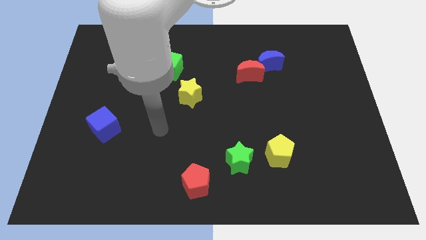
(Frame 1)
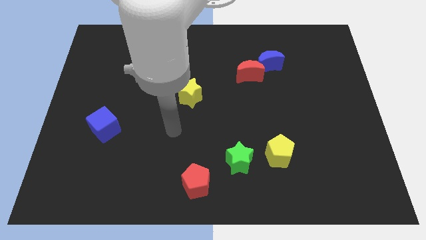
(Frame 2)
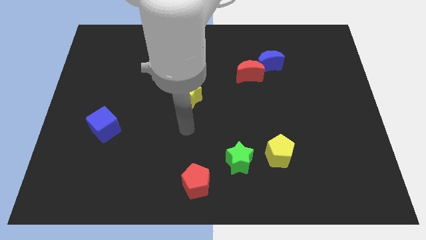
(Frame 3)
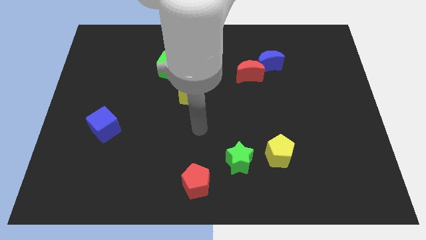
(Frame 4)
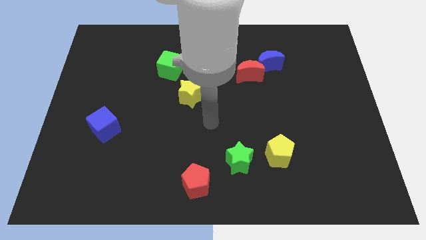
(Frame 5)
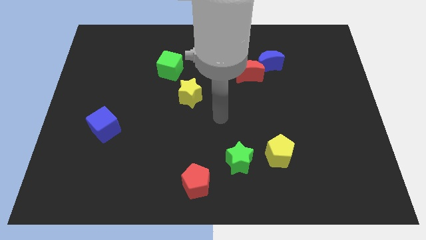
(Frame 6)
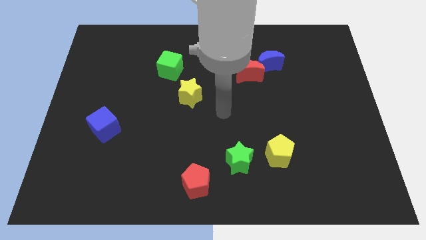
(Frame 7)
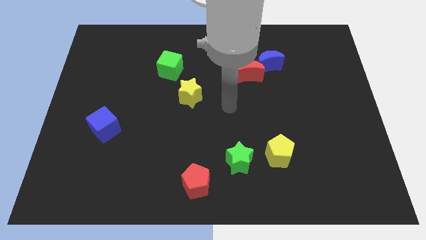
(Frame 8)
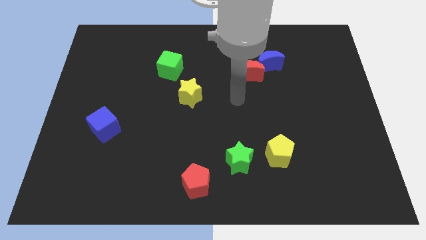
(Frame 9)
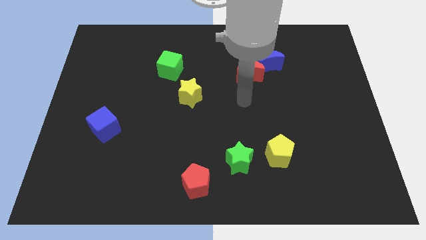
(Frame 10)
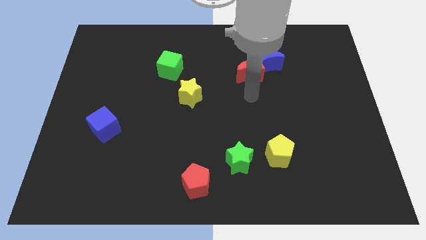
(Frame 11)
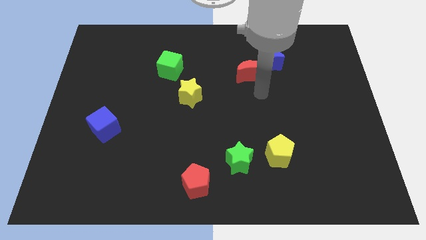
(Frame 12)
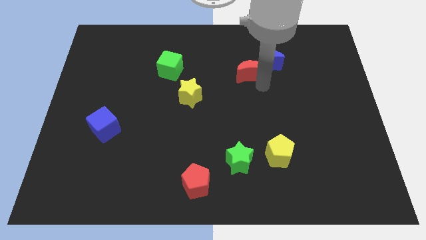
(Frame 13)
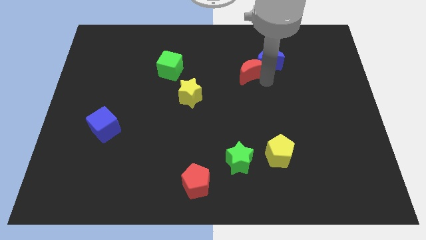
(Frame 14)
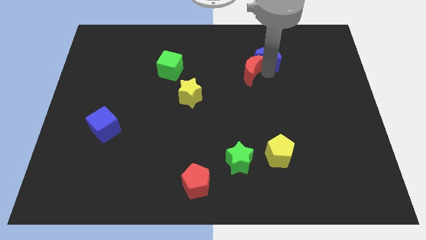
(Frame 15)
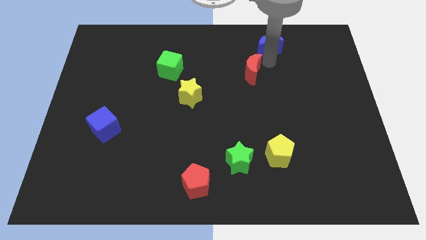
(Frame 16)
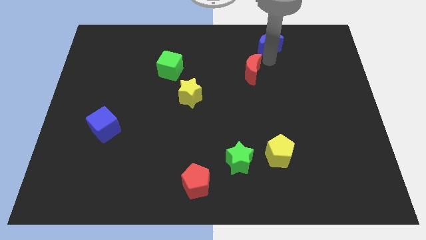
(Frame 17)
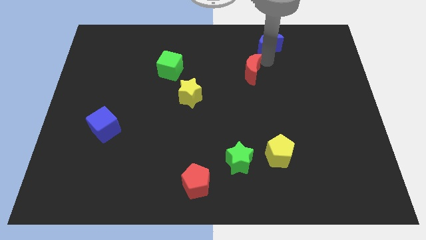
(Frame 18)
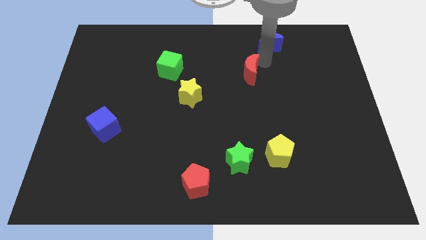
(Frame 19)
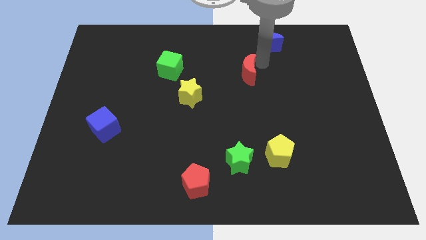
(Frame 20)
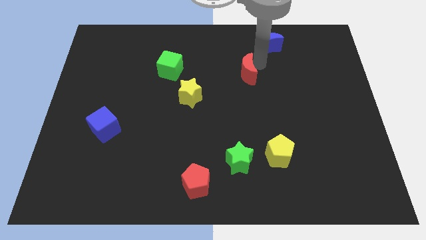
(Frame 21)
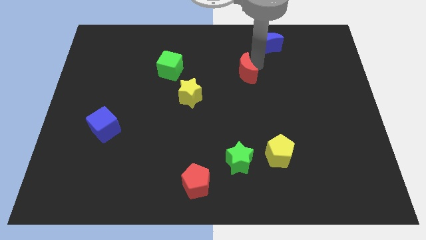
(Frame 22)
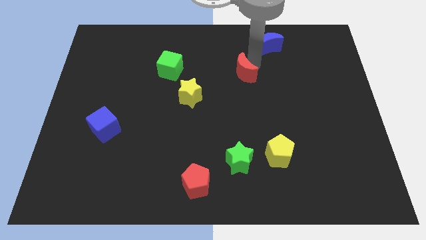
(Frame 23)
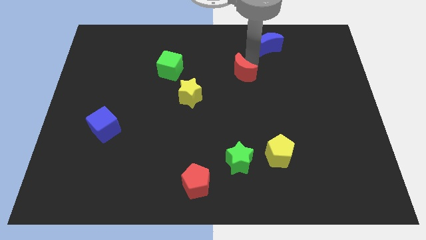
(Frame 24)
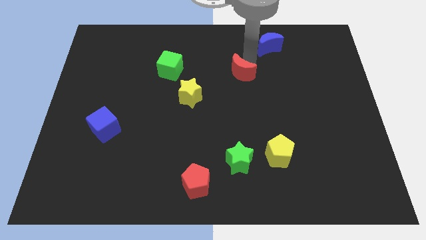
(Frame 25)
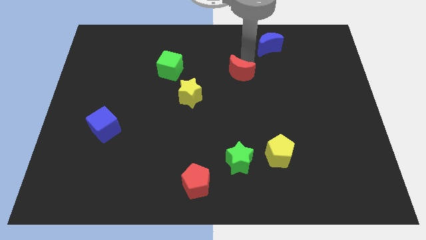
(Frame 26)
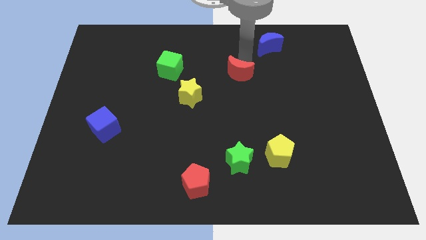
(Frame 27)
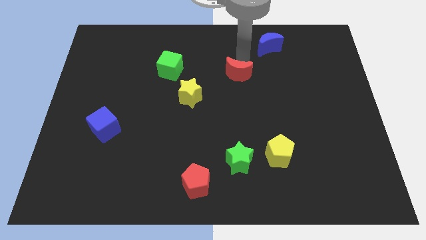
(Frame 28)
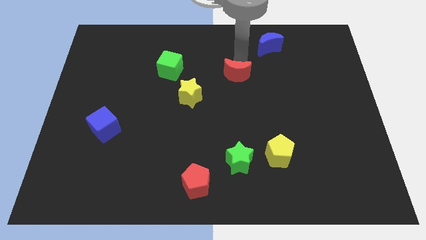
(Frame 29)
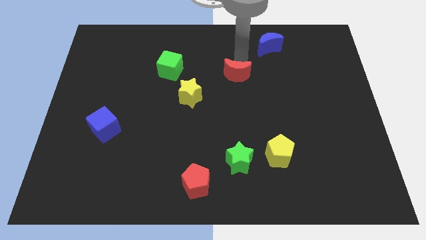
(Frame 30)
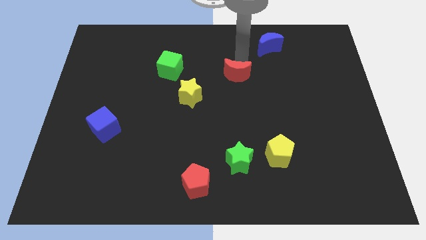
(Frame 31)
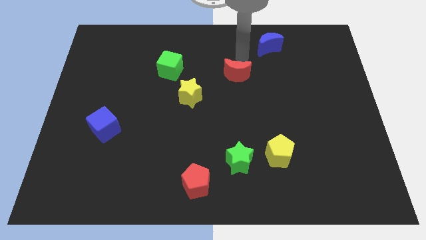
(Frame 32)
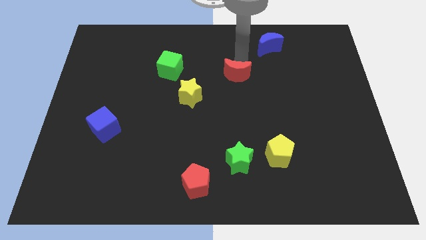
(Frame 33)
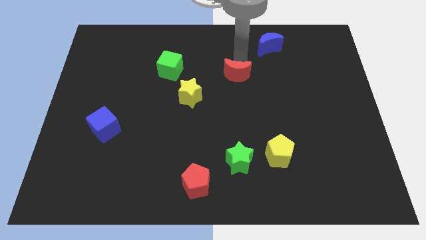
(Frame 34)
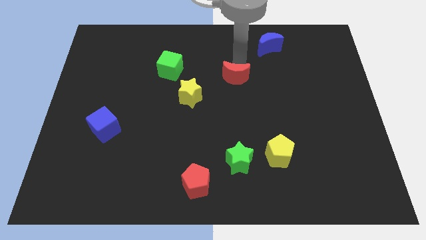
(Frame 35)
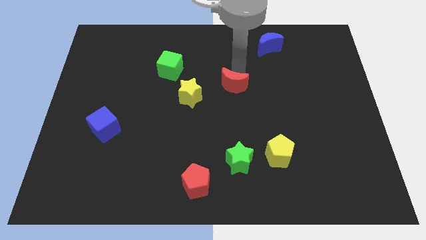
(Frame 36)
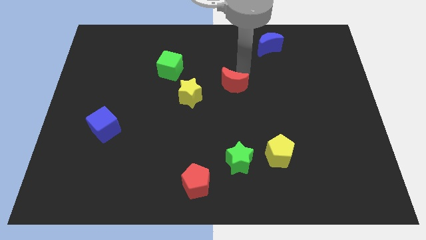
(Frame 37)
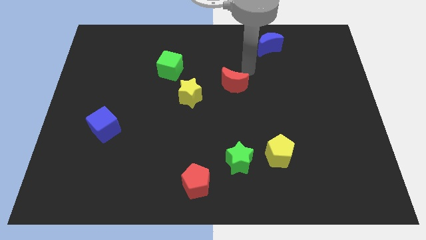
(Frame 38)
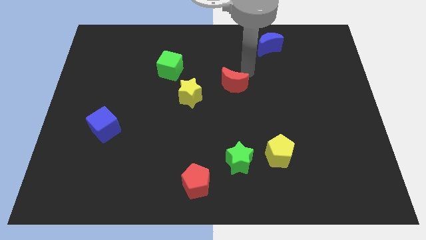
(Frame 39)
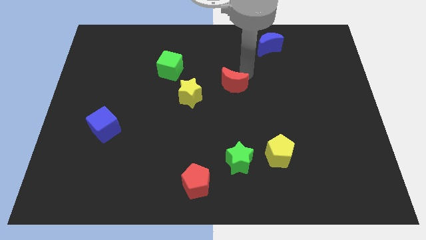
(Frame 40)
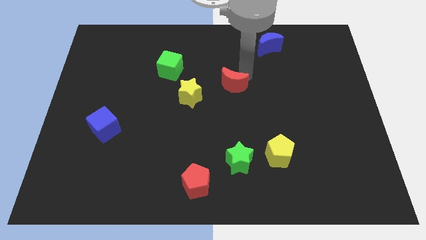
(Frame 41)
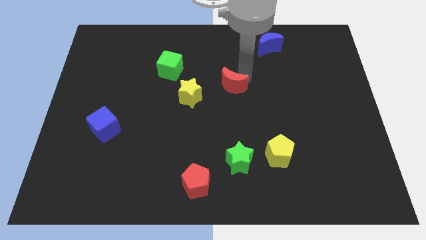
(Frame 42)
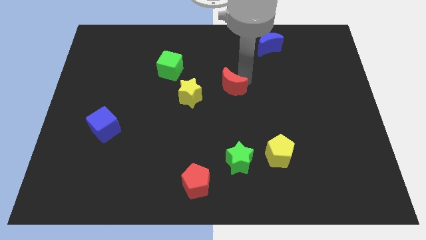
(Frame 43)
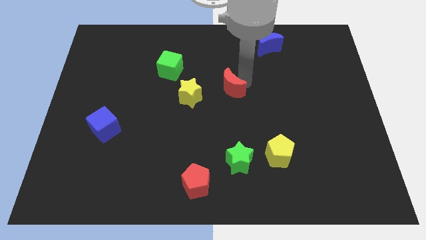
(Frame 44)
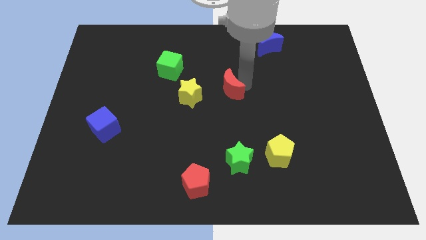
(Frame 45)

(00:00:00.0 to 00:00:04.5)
push the red moon diagonally downwards and to the left a bit

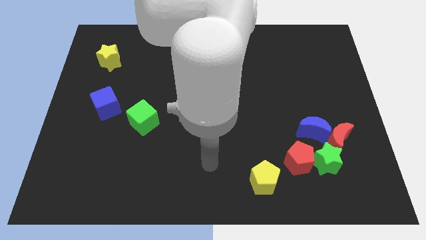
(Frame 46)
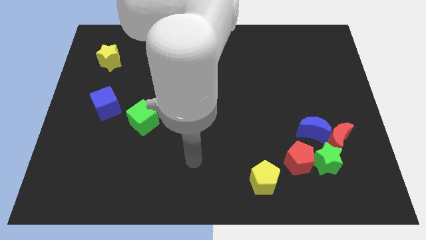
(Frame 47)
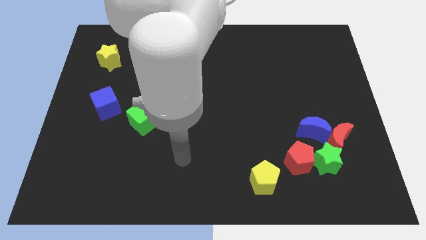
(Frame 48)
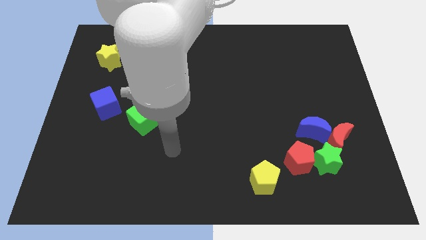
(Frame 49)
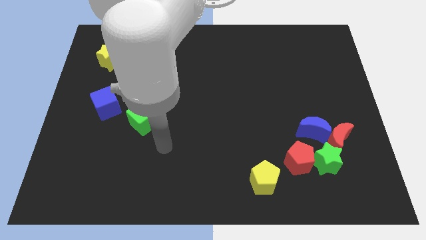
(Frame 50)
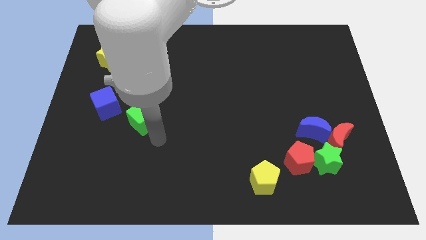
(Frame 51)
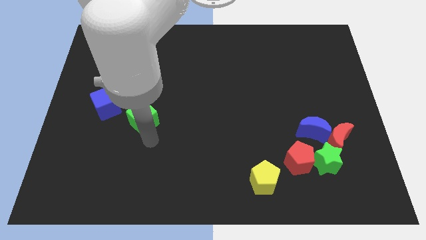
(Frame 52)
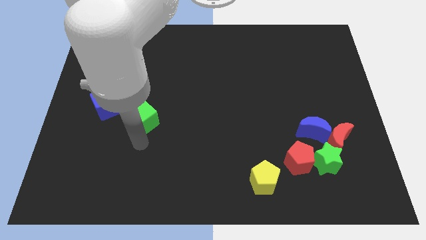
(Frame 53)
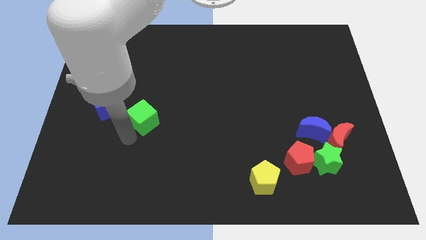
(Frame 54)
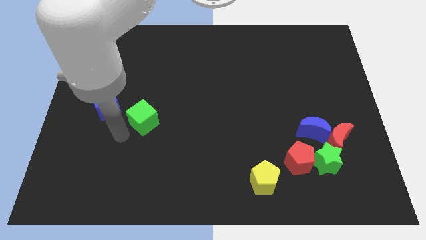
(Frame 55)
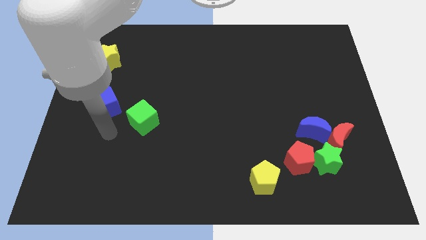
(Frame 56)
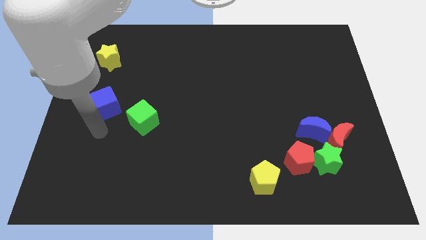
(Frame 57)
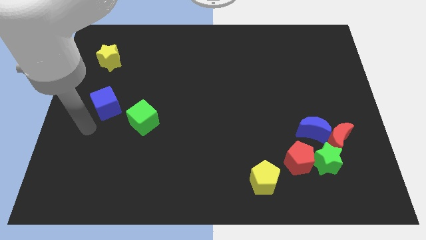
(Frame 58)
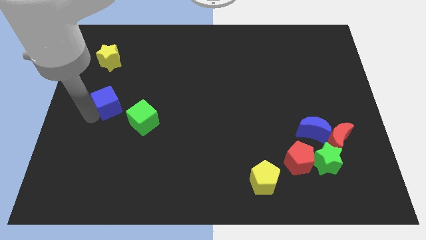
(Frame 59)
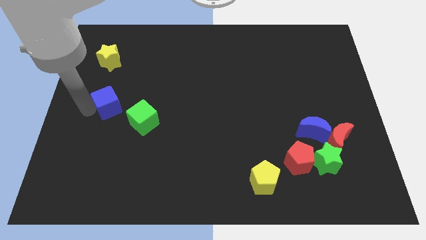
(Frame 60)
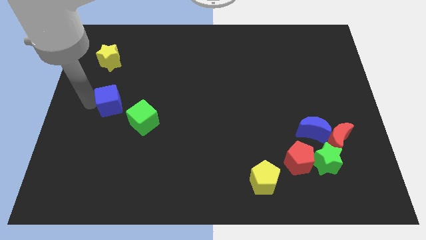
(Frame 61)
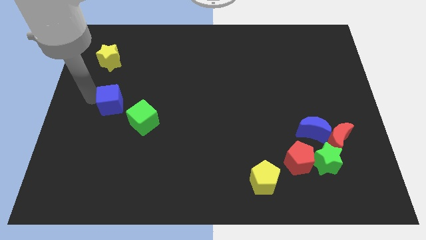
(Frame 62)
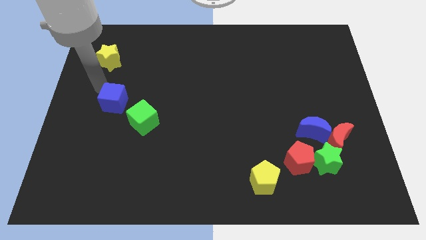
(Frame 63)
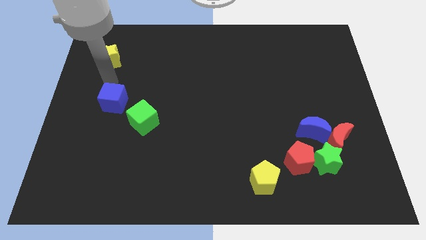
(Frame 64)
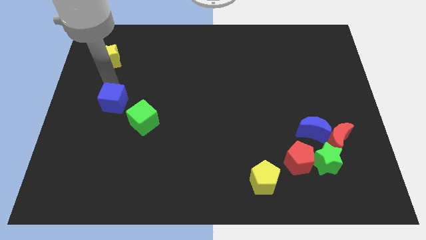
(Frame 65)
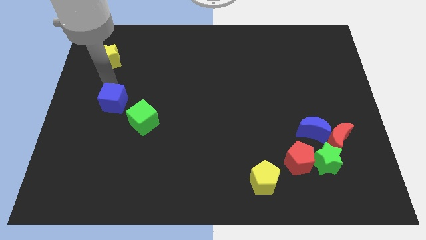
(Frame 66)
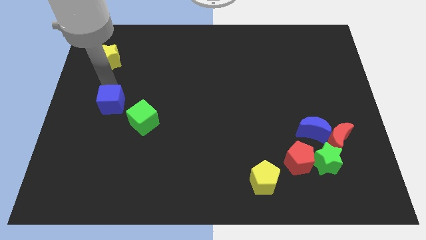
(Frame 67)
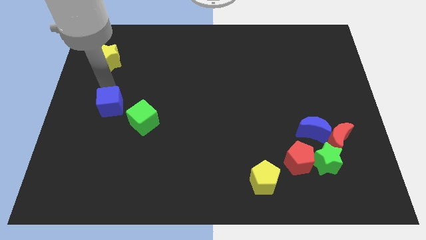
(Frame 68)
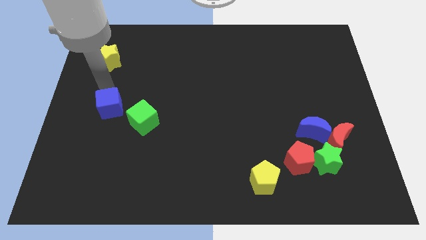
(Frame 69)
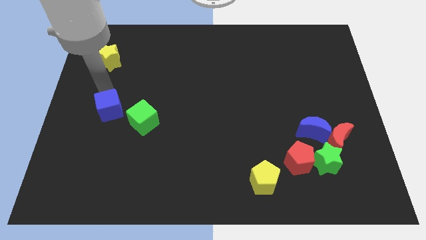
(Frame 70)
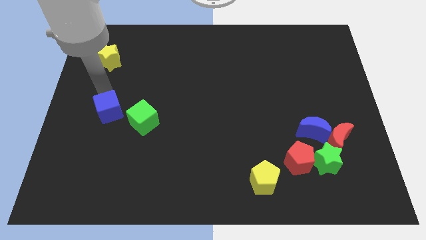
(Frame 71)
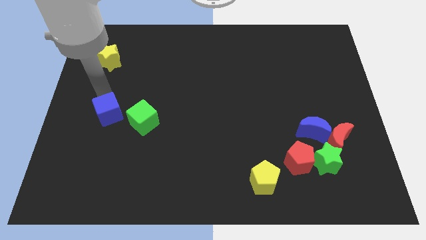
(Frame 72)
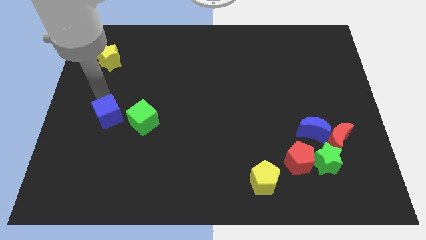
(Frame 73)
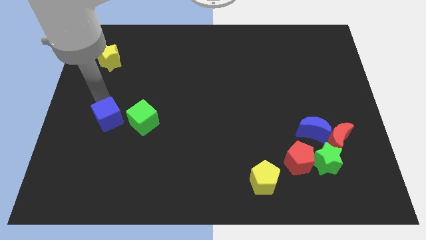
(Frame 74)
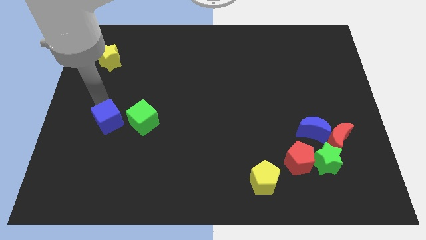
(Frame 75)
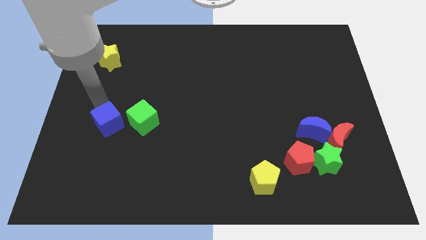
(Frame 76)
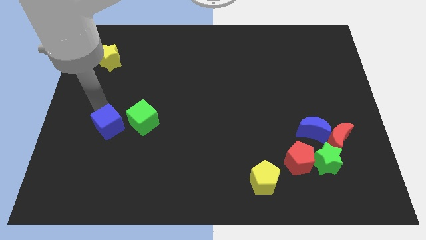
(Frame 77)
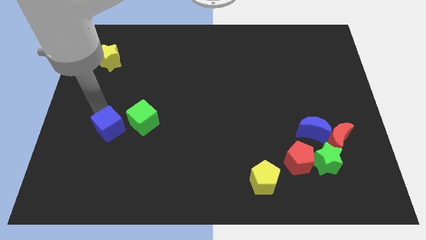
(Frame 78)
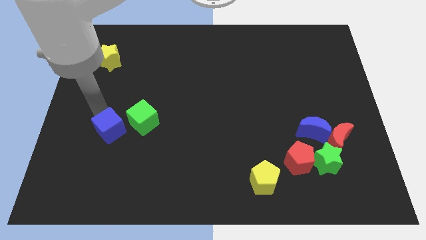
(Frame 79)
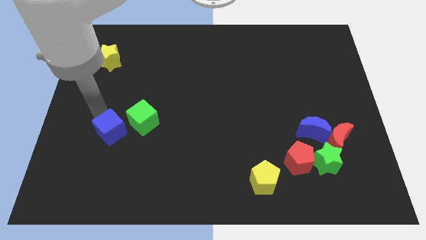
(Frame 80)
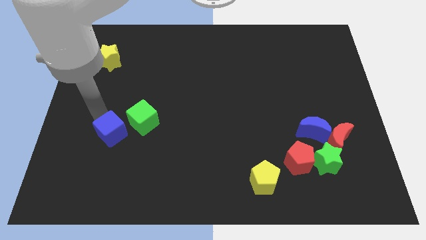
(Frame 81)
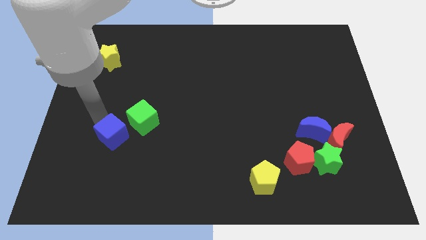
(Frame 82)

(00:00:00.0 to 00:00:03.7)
slide the blue cube downwards and then right a little
